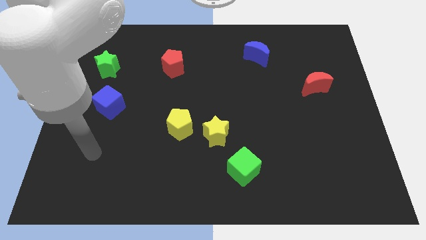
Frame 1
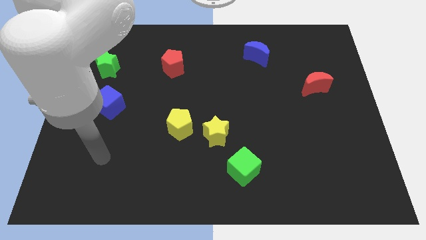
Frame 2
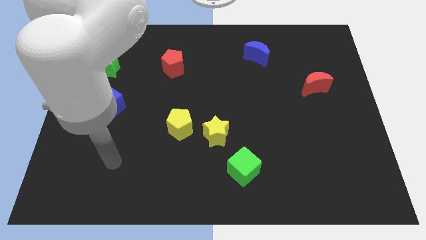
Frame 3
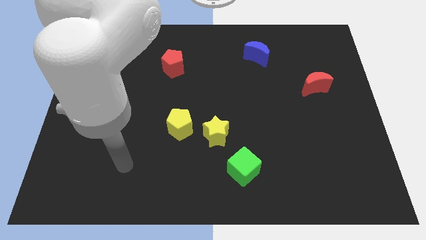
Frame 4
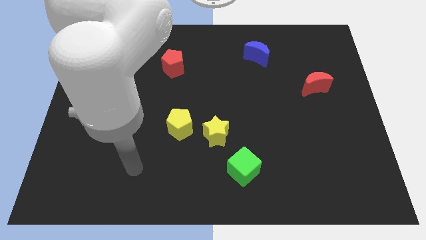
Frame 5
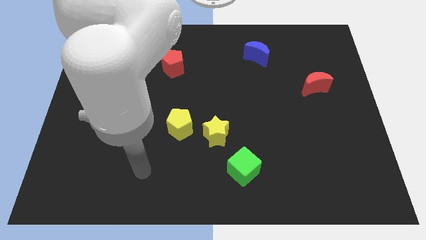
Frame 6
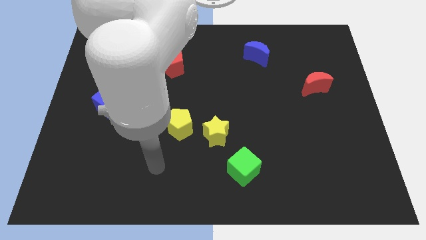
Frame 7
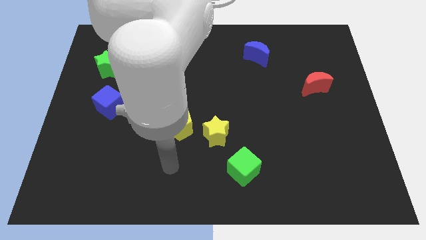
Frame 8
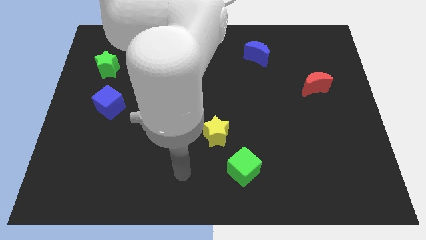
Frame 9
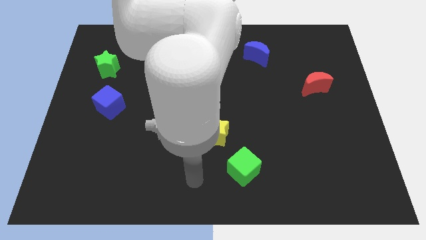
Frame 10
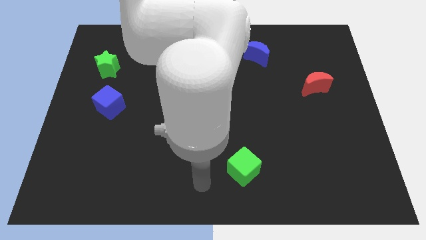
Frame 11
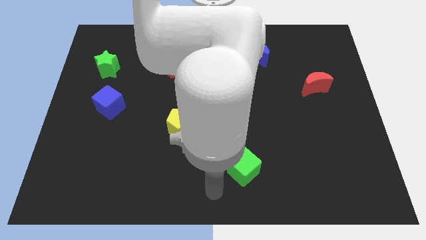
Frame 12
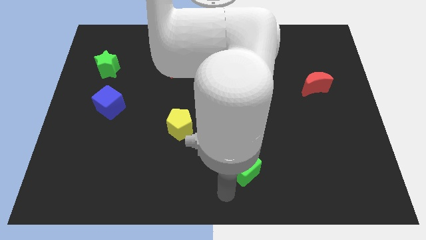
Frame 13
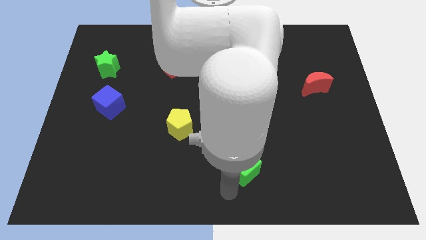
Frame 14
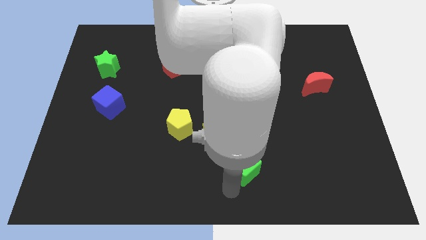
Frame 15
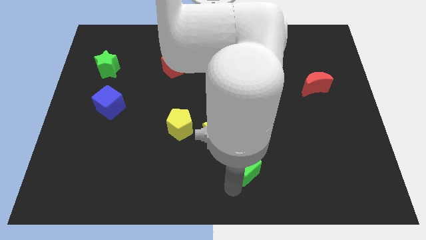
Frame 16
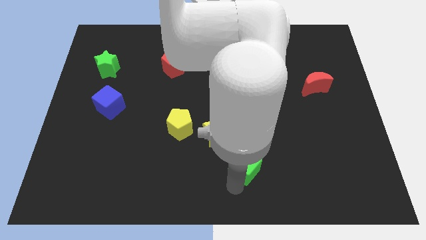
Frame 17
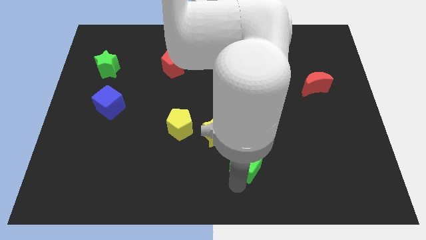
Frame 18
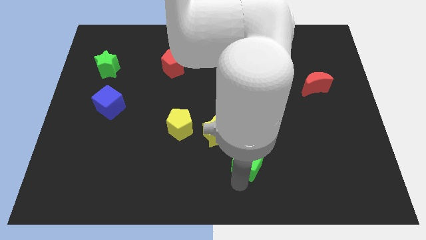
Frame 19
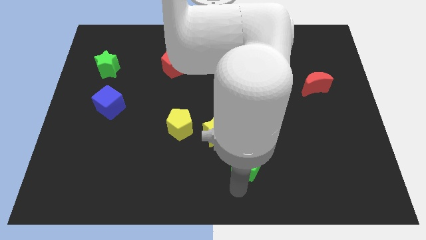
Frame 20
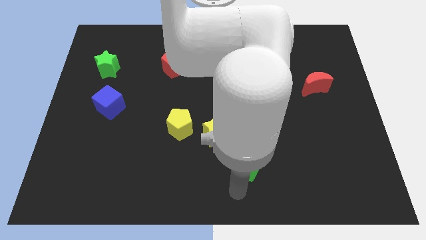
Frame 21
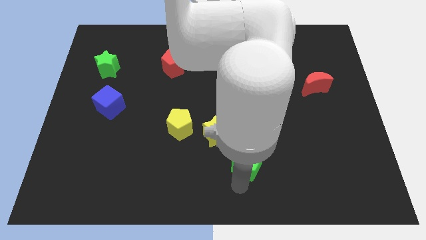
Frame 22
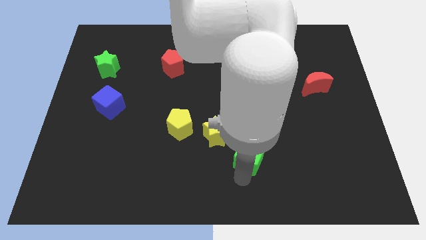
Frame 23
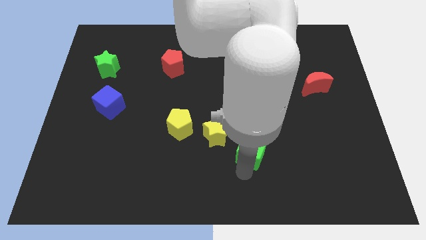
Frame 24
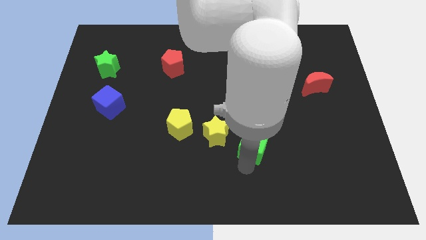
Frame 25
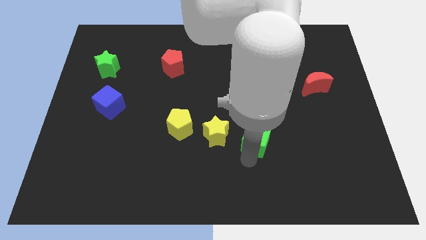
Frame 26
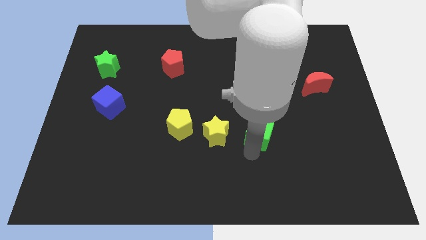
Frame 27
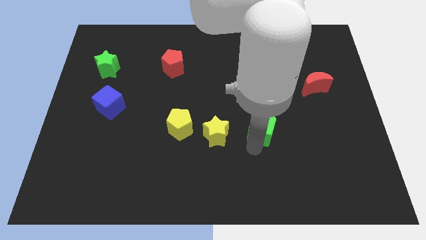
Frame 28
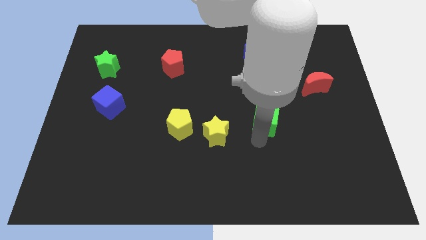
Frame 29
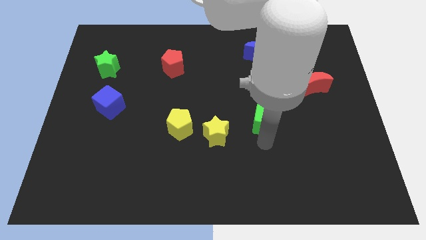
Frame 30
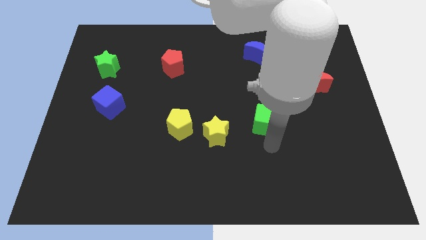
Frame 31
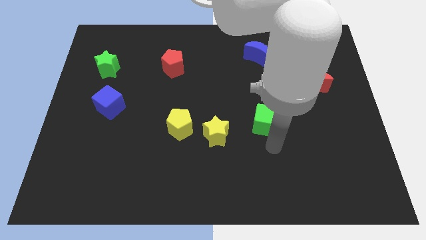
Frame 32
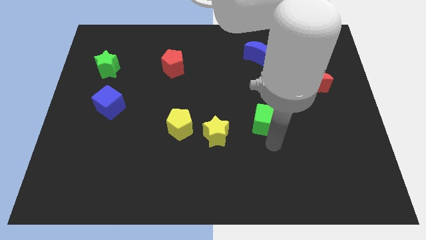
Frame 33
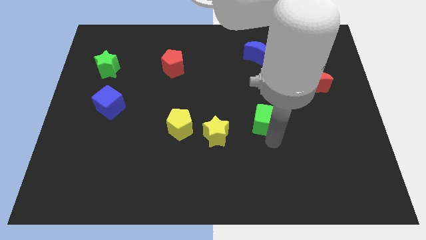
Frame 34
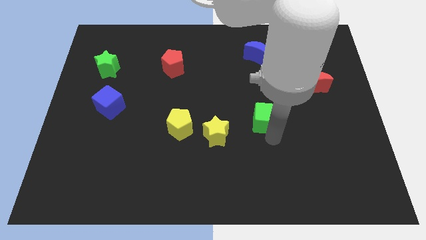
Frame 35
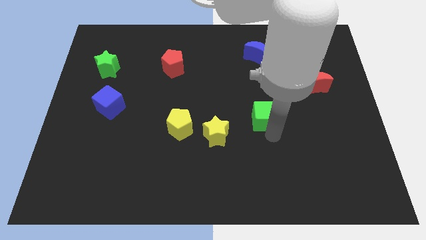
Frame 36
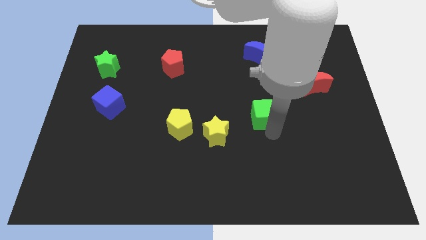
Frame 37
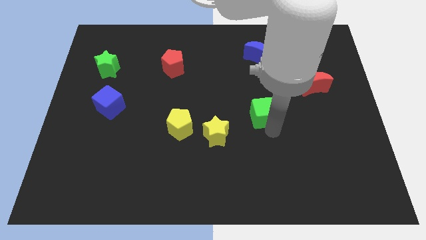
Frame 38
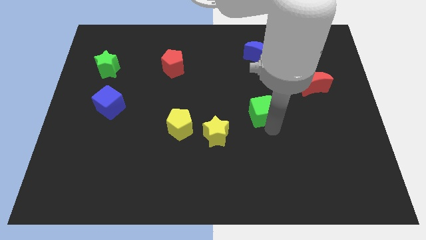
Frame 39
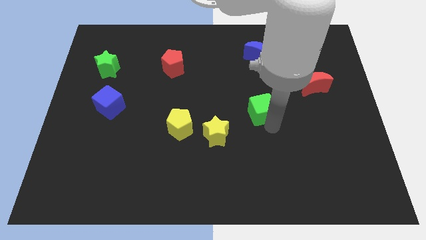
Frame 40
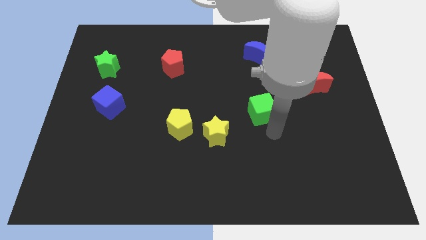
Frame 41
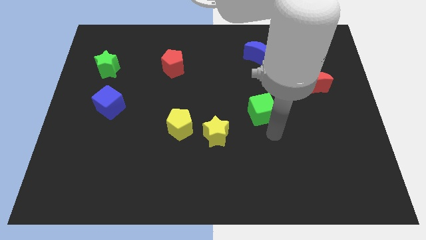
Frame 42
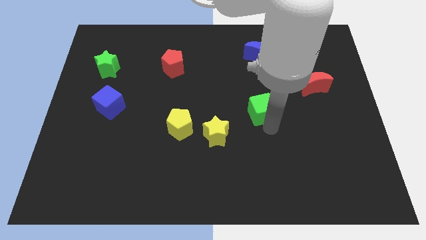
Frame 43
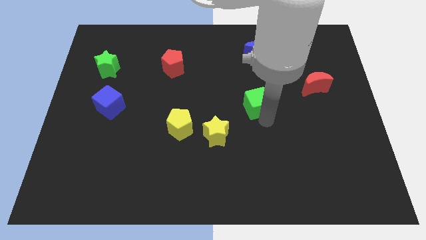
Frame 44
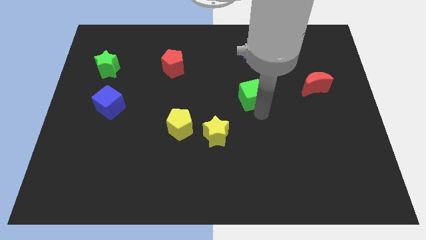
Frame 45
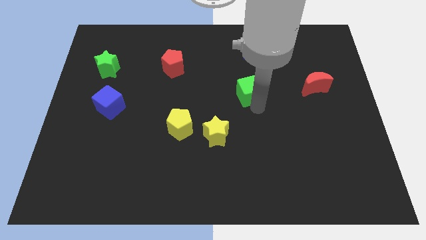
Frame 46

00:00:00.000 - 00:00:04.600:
slide the green cube up

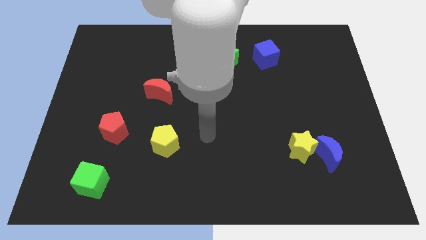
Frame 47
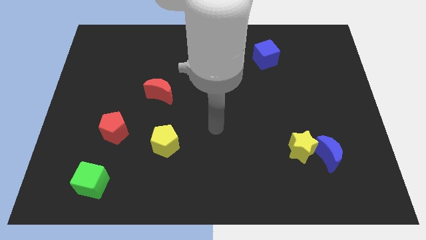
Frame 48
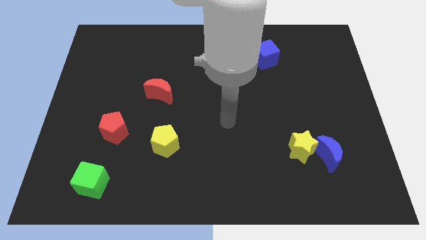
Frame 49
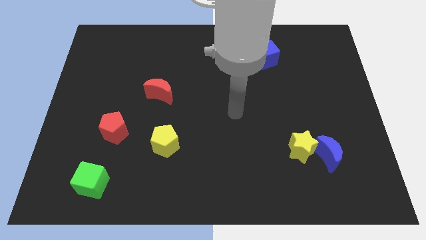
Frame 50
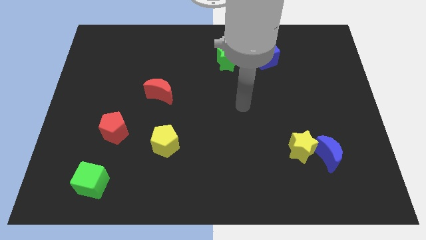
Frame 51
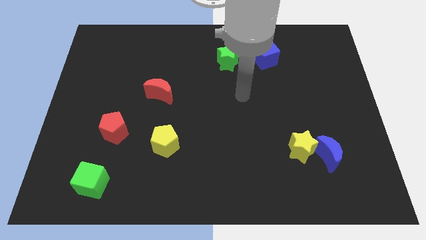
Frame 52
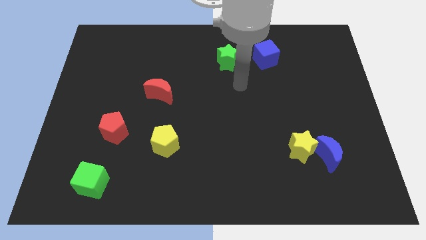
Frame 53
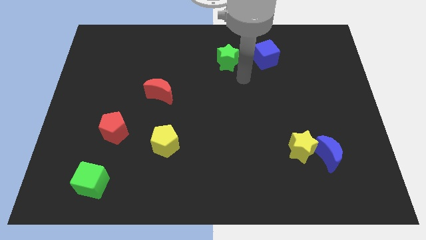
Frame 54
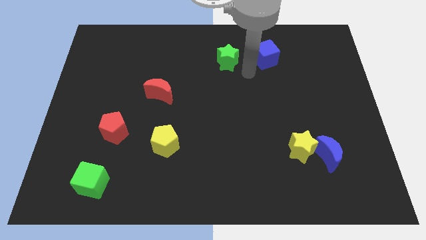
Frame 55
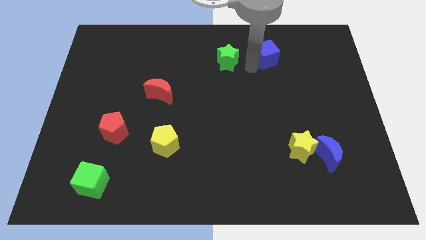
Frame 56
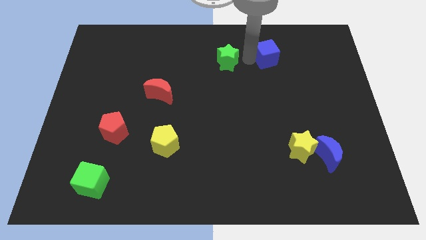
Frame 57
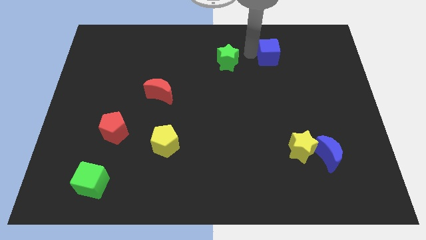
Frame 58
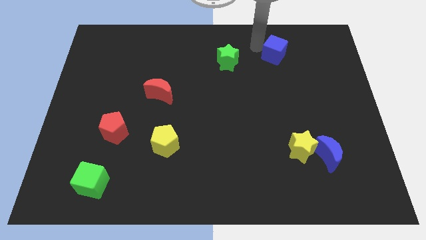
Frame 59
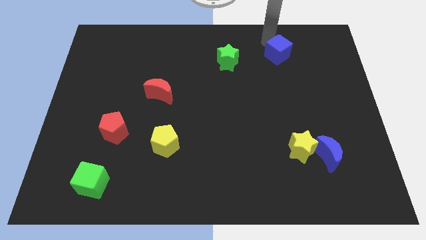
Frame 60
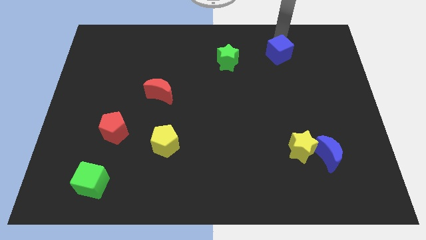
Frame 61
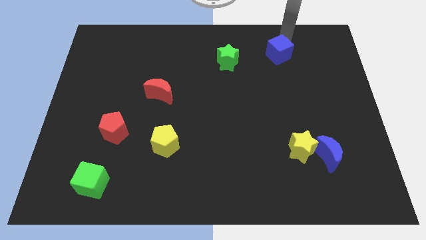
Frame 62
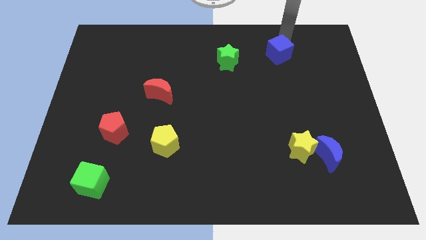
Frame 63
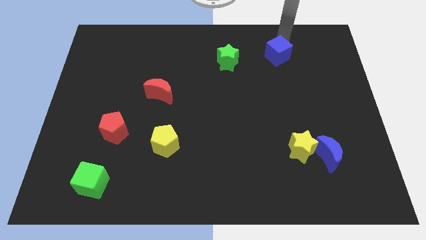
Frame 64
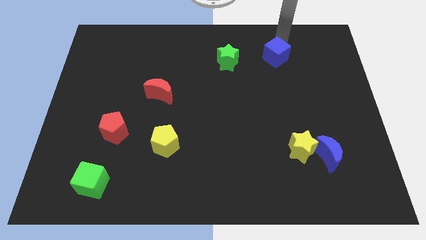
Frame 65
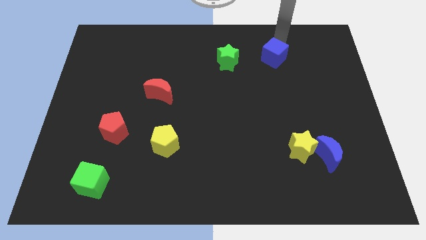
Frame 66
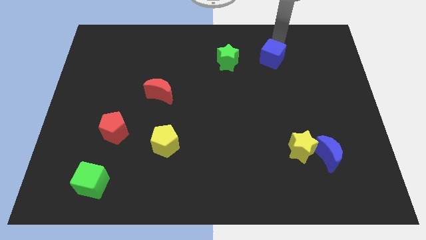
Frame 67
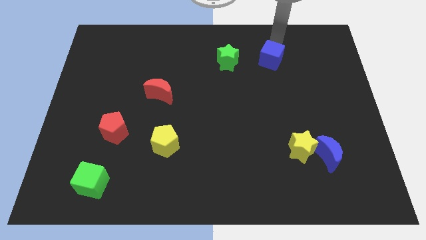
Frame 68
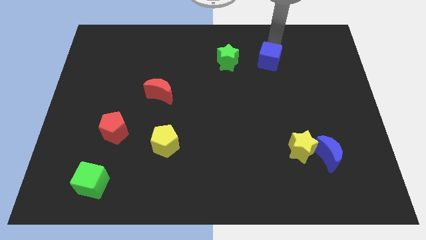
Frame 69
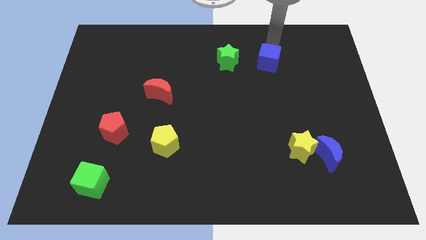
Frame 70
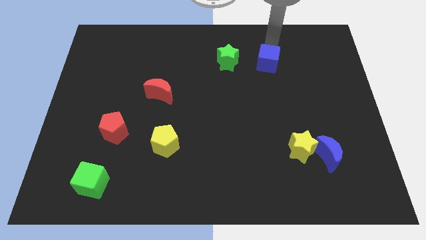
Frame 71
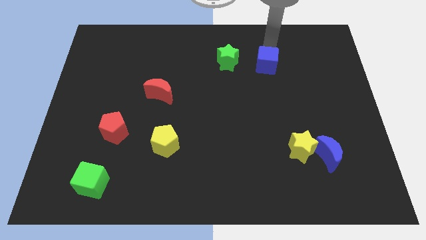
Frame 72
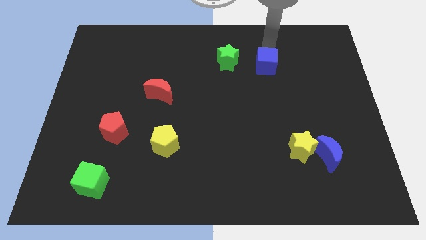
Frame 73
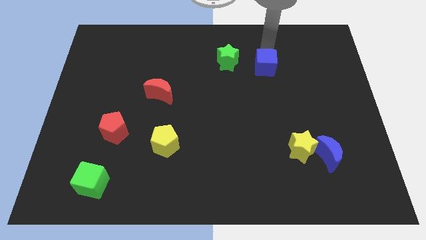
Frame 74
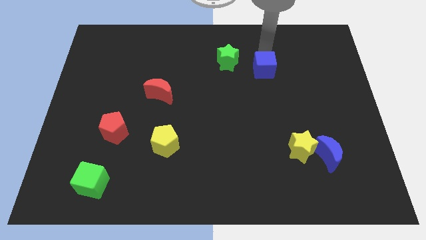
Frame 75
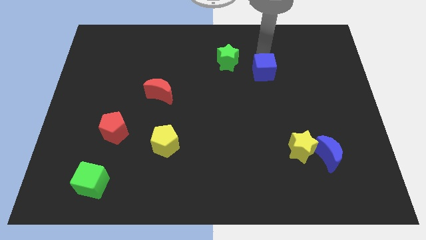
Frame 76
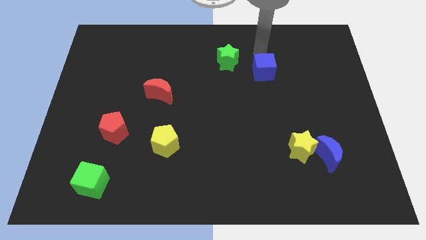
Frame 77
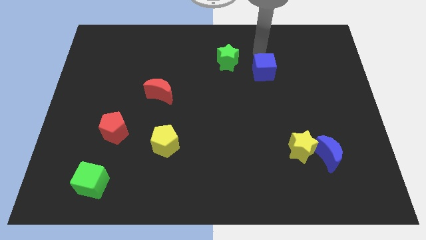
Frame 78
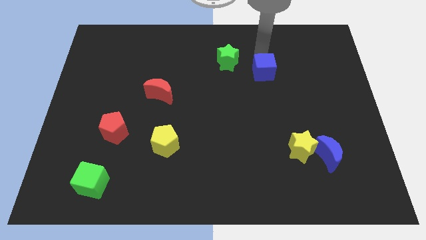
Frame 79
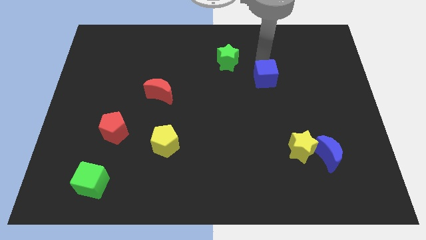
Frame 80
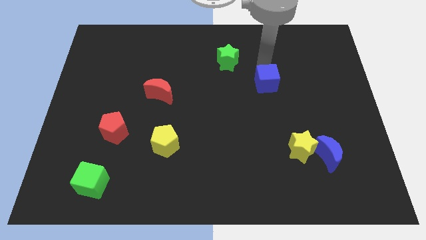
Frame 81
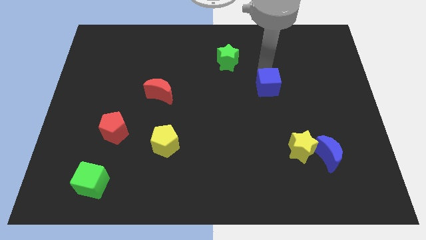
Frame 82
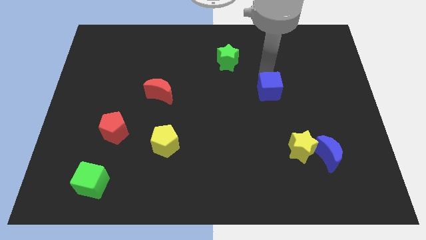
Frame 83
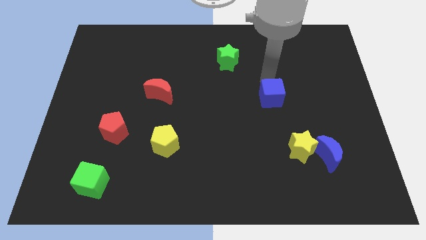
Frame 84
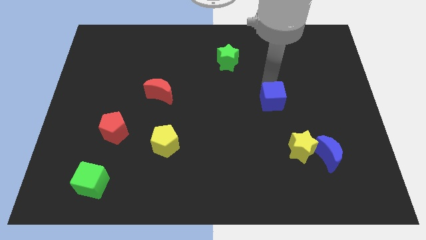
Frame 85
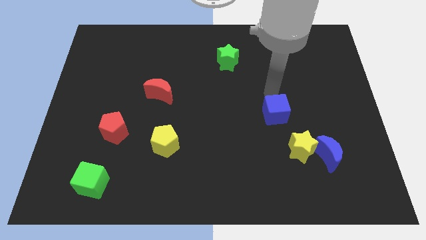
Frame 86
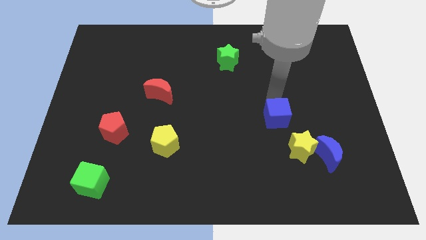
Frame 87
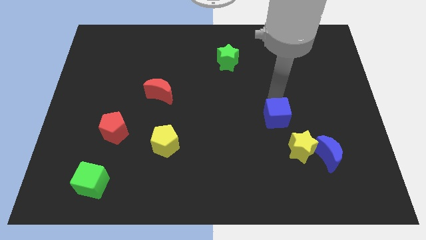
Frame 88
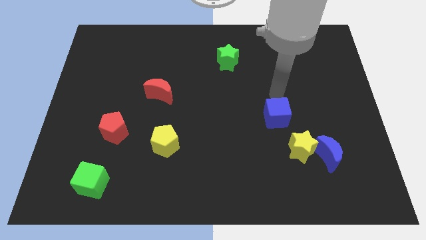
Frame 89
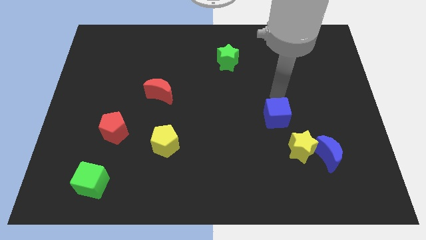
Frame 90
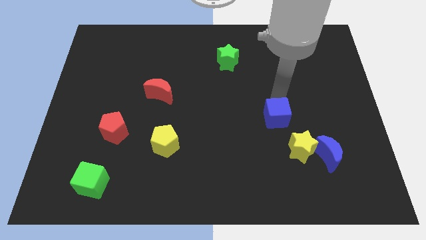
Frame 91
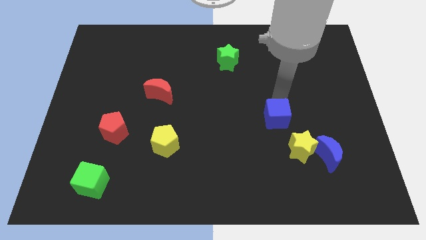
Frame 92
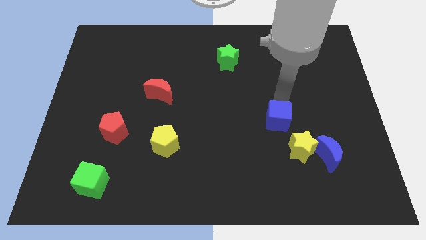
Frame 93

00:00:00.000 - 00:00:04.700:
move the blue cube downwards
